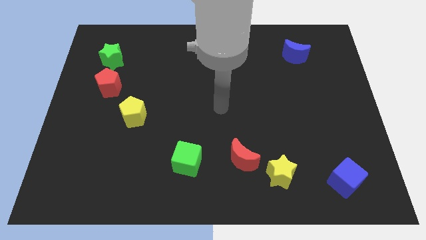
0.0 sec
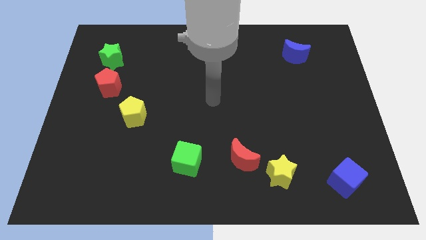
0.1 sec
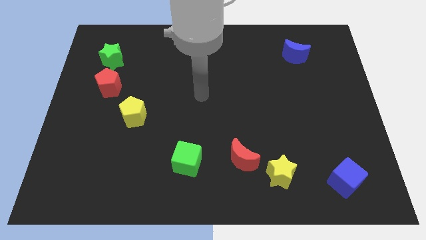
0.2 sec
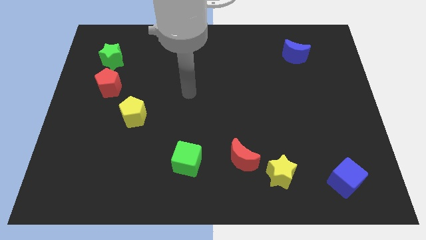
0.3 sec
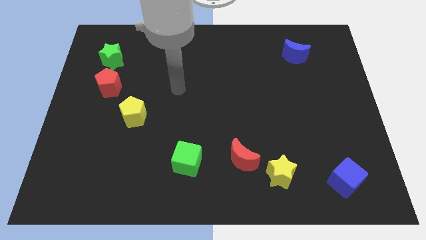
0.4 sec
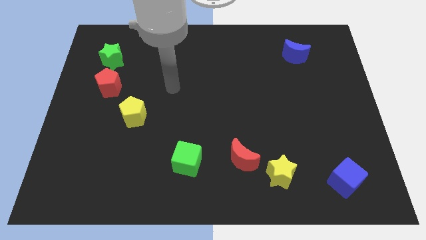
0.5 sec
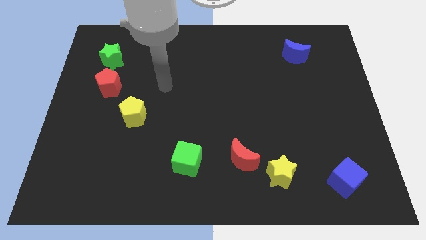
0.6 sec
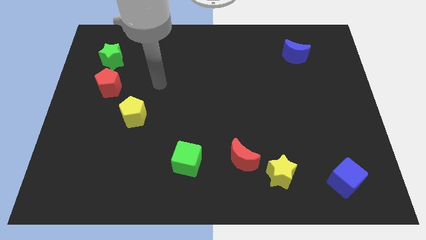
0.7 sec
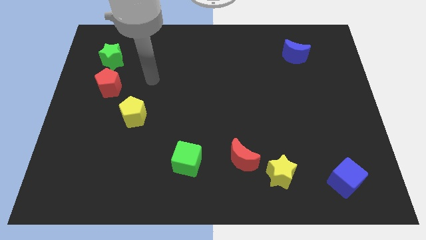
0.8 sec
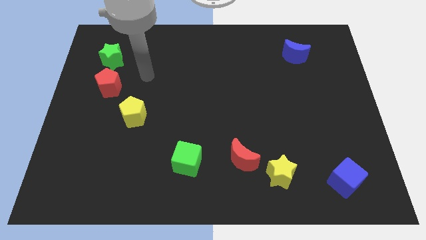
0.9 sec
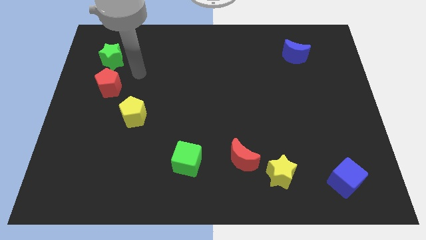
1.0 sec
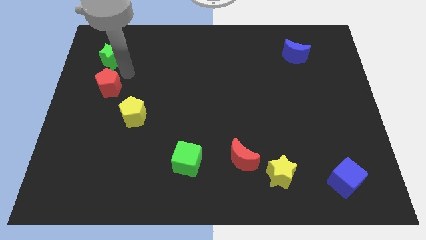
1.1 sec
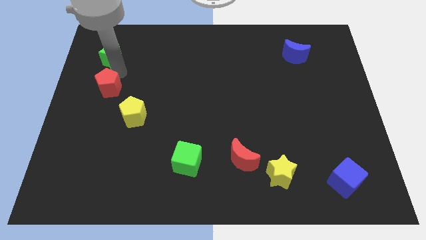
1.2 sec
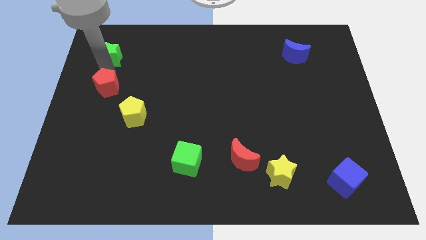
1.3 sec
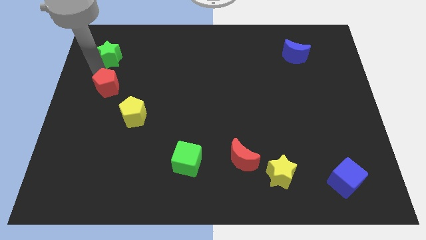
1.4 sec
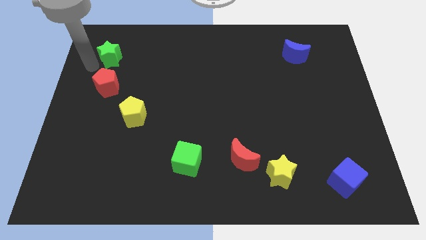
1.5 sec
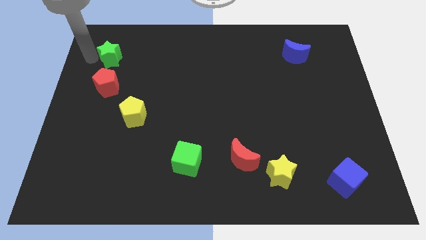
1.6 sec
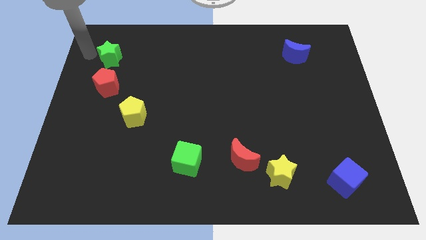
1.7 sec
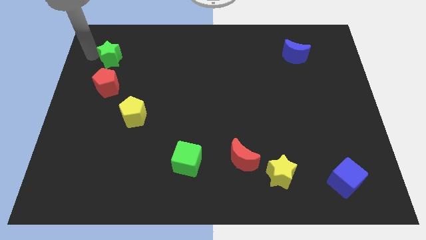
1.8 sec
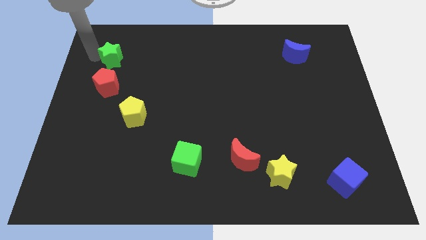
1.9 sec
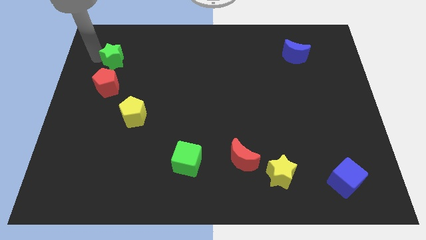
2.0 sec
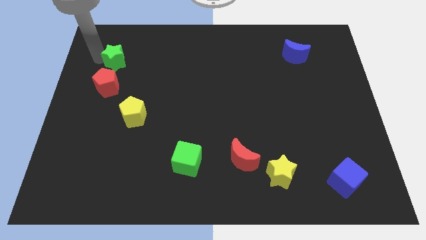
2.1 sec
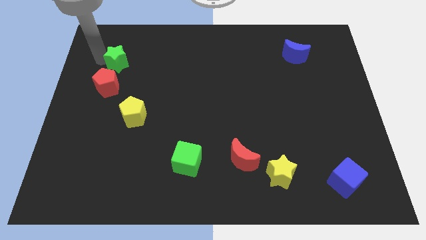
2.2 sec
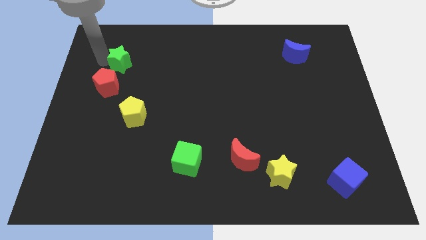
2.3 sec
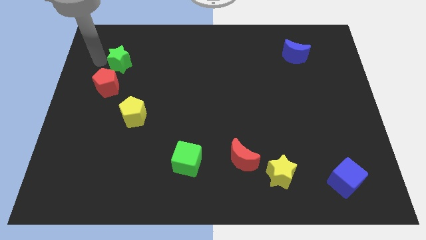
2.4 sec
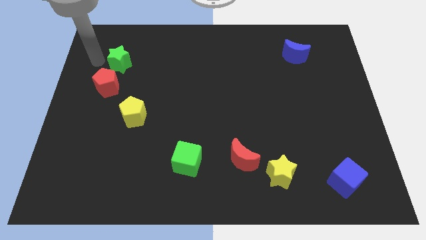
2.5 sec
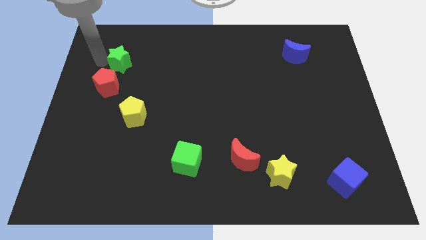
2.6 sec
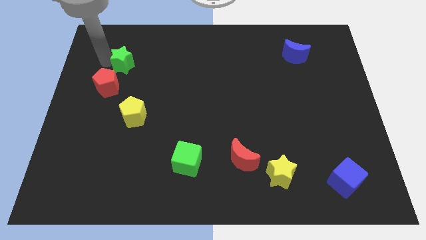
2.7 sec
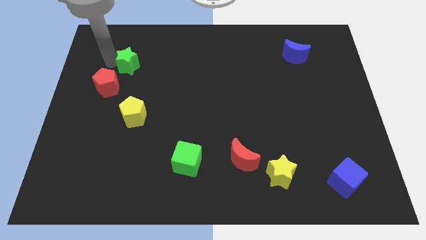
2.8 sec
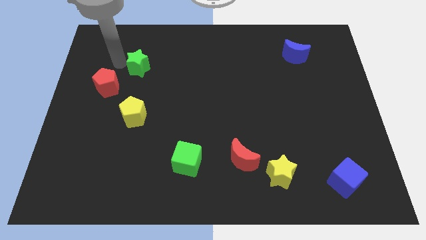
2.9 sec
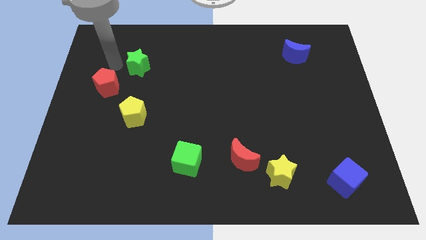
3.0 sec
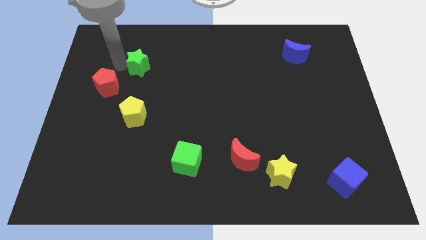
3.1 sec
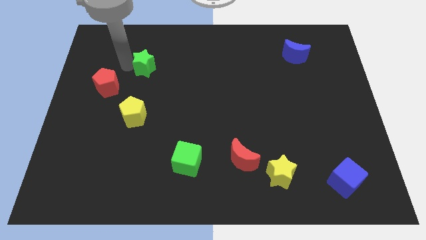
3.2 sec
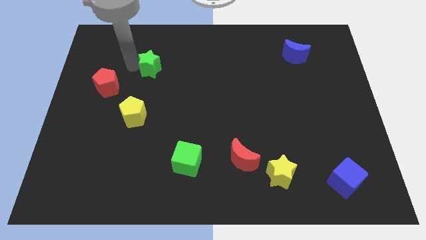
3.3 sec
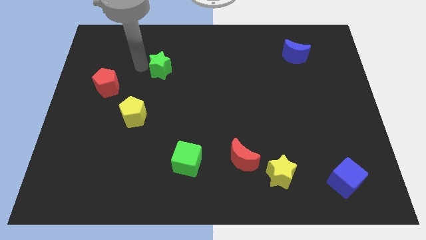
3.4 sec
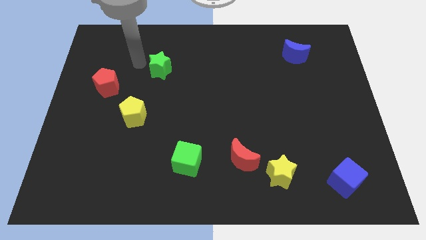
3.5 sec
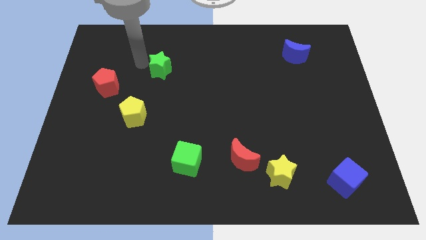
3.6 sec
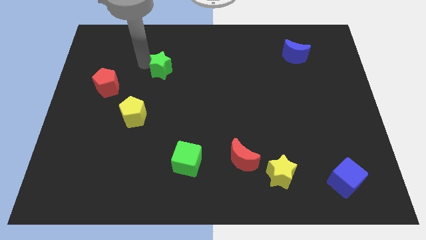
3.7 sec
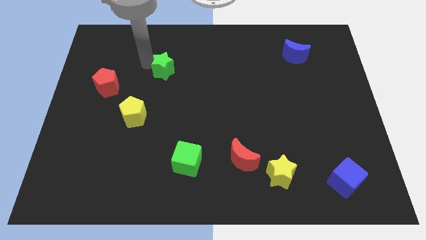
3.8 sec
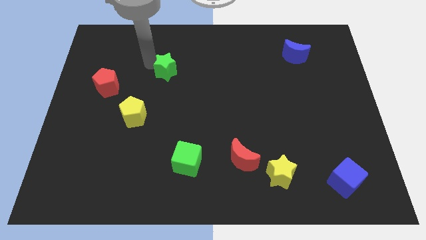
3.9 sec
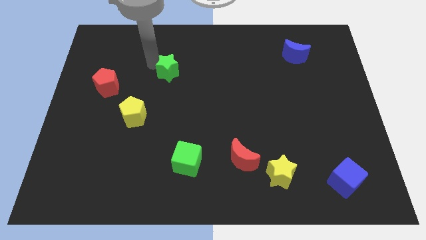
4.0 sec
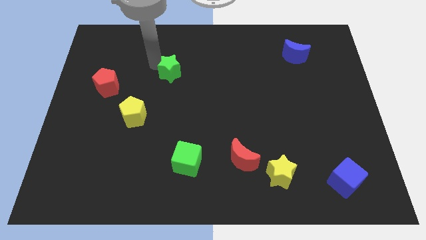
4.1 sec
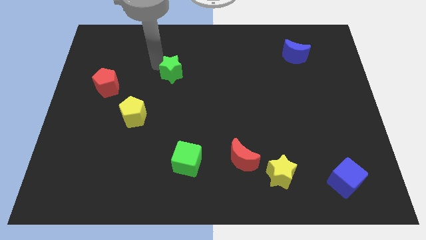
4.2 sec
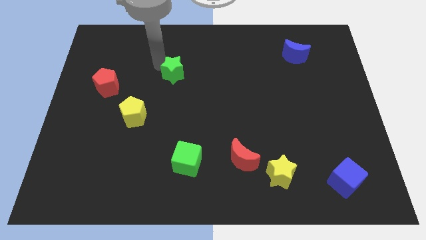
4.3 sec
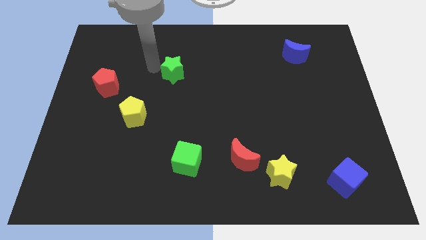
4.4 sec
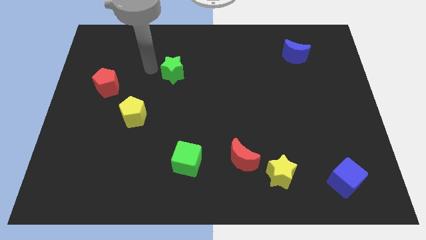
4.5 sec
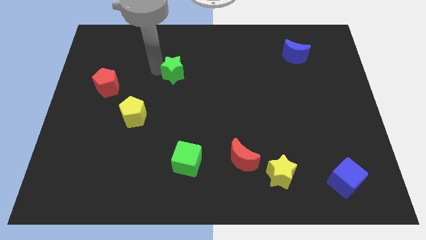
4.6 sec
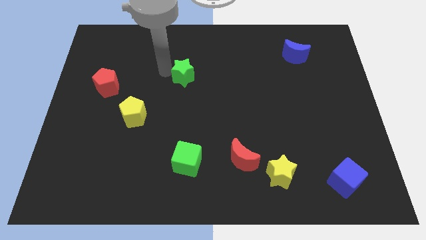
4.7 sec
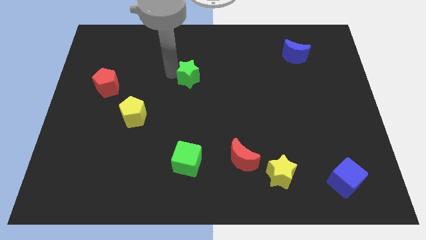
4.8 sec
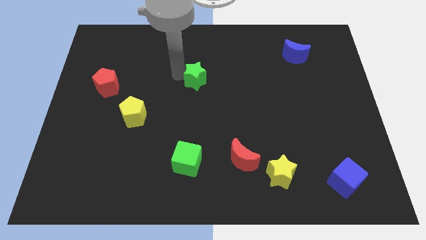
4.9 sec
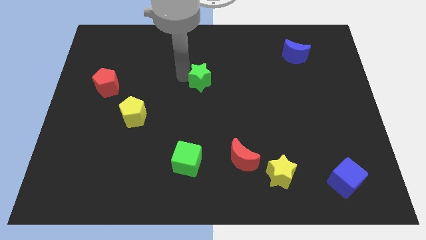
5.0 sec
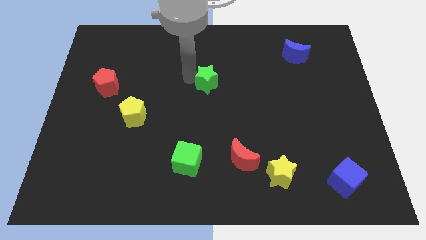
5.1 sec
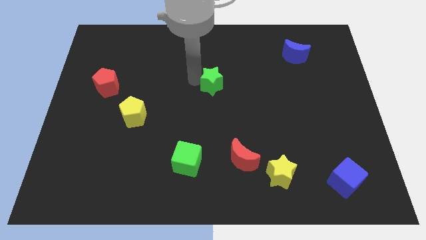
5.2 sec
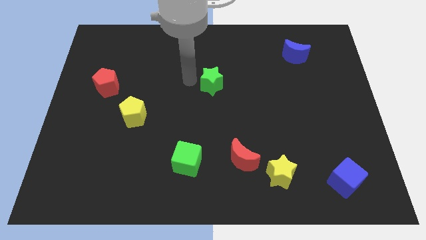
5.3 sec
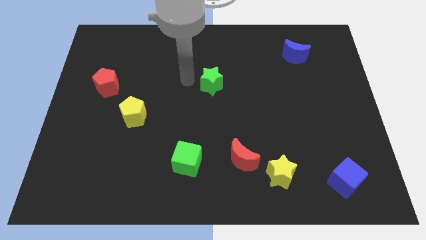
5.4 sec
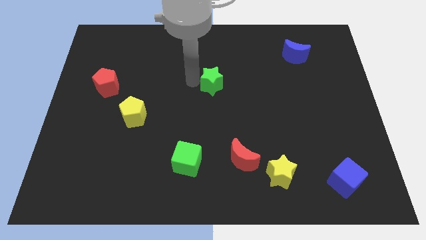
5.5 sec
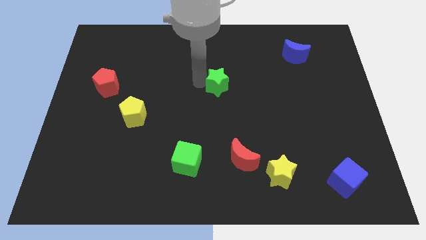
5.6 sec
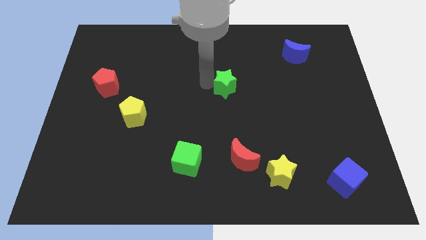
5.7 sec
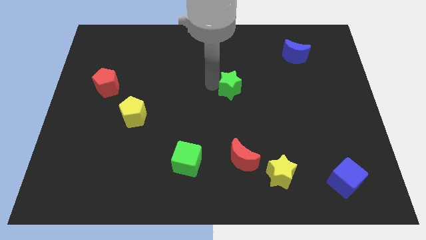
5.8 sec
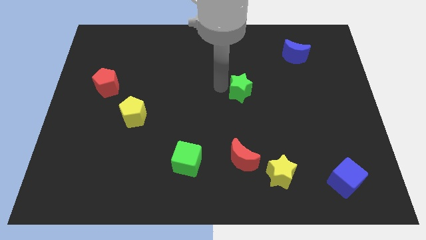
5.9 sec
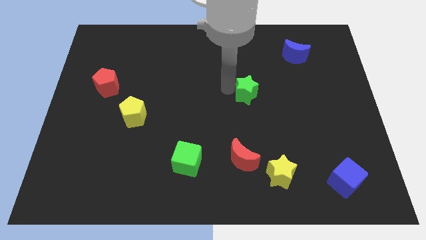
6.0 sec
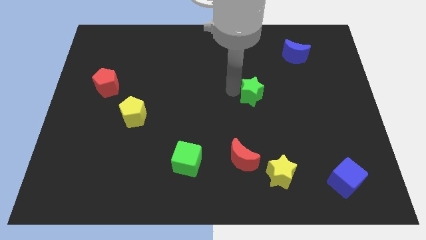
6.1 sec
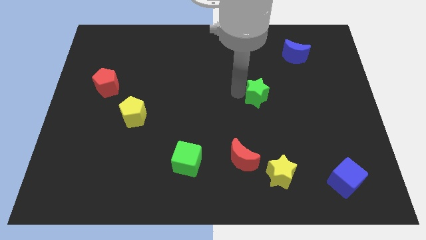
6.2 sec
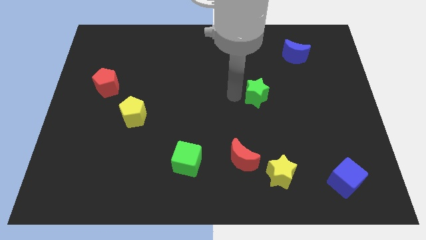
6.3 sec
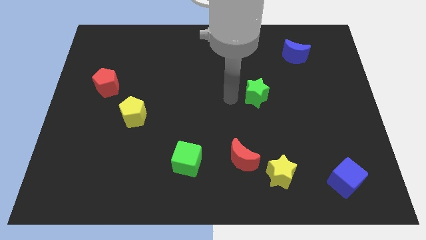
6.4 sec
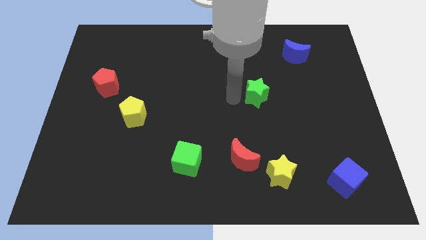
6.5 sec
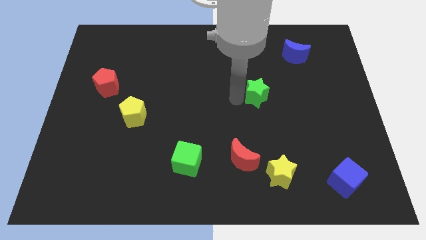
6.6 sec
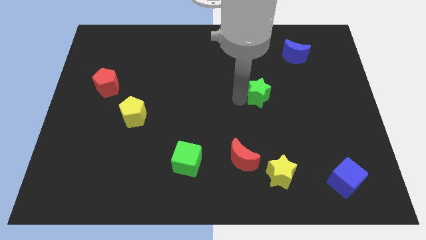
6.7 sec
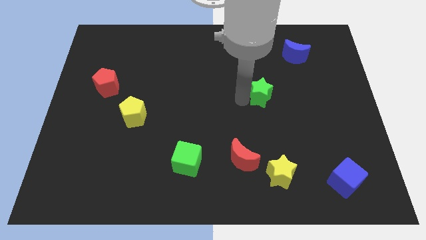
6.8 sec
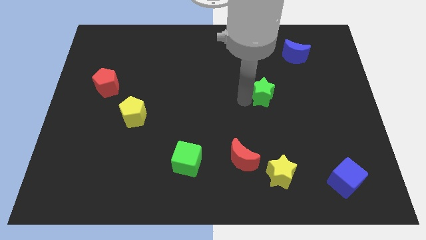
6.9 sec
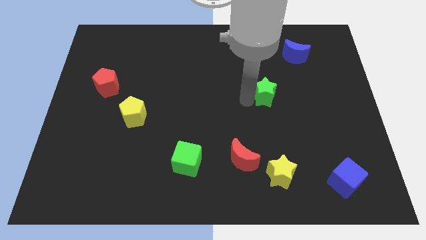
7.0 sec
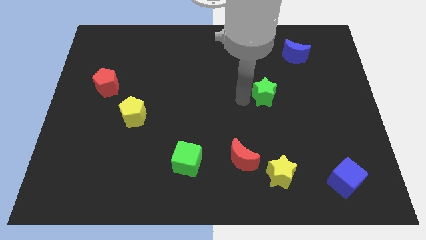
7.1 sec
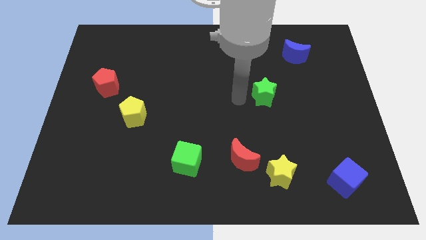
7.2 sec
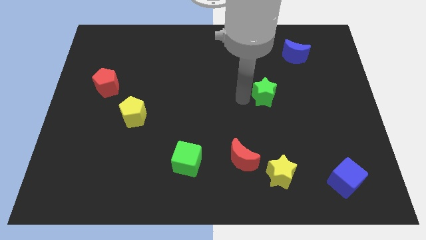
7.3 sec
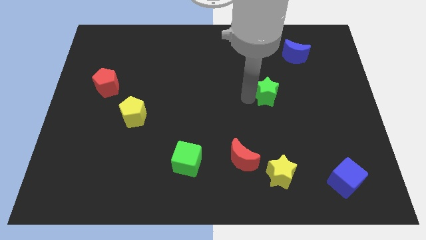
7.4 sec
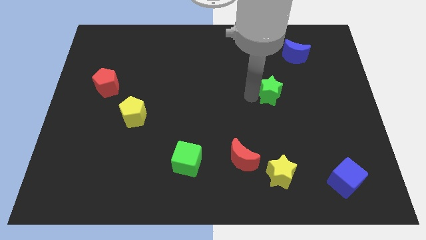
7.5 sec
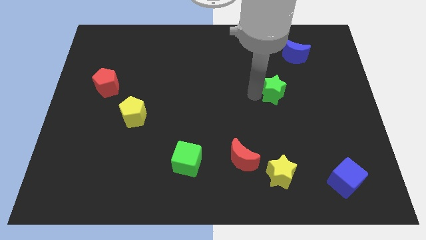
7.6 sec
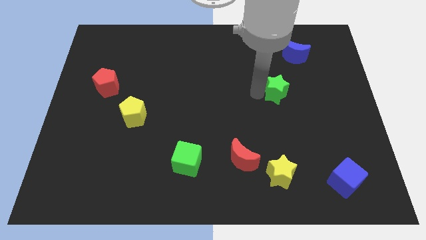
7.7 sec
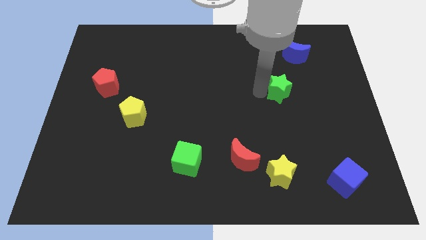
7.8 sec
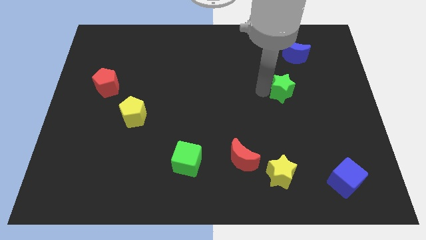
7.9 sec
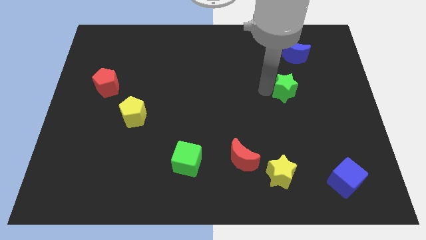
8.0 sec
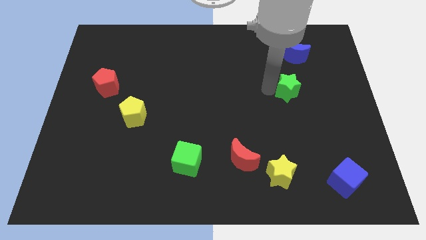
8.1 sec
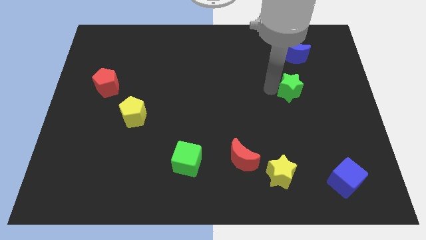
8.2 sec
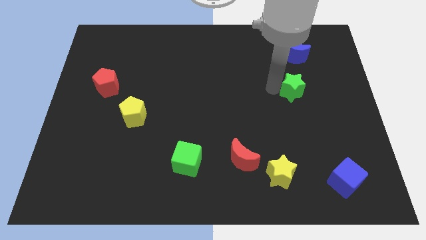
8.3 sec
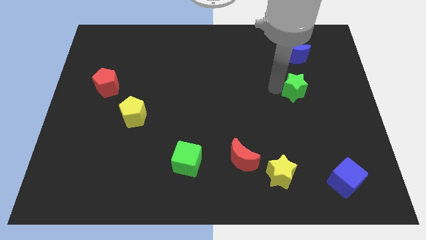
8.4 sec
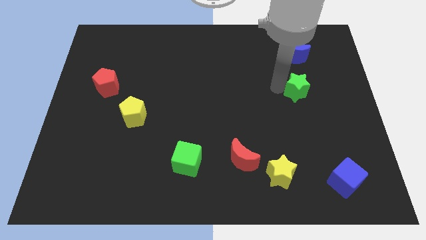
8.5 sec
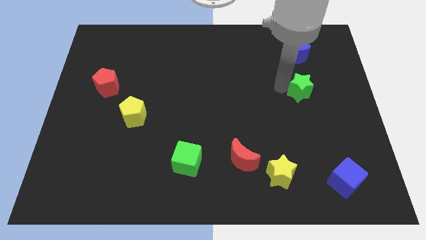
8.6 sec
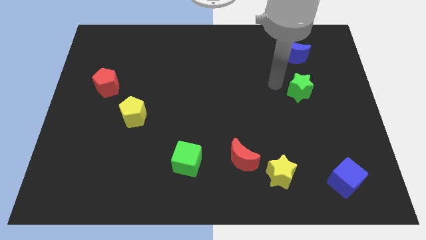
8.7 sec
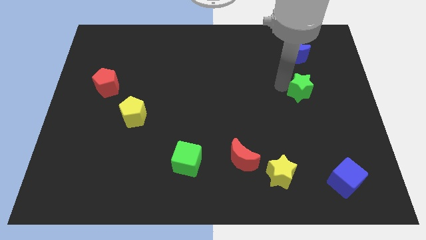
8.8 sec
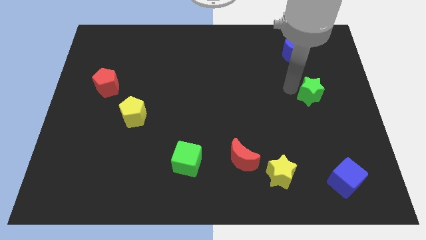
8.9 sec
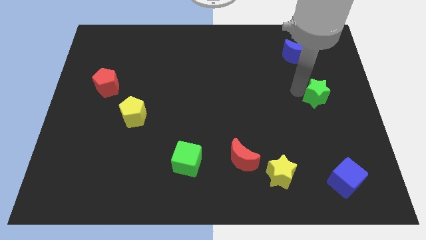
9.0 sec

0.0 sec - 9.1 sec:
put the green star to the right side
